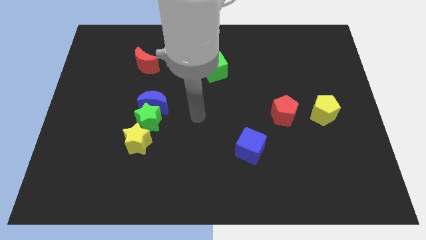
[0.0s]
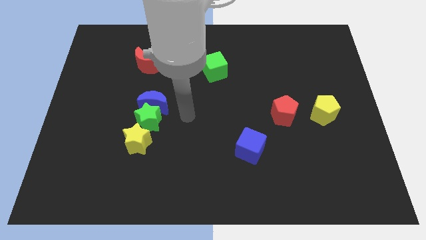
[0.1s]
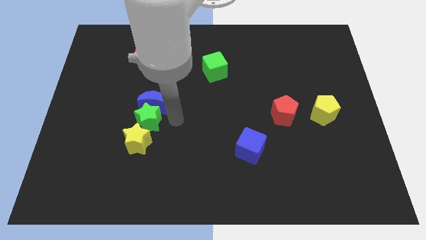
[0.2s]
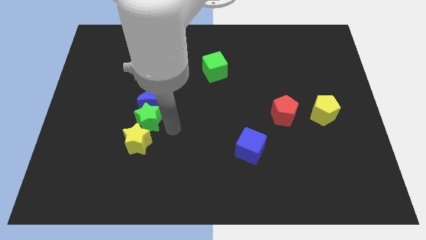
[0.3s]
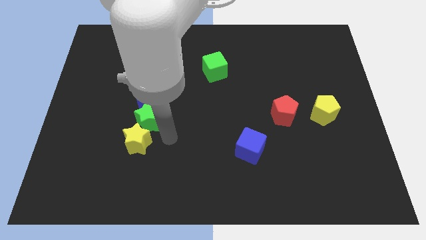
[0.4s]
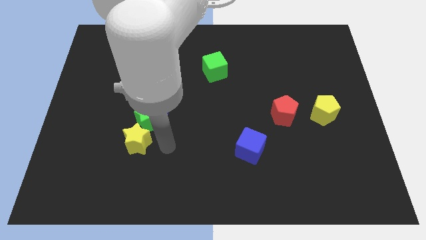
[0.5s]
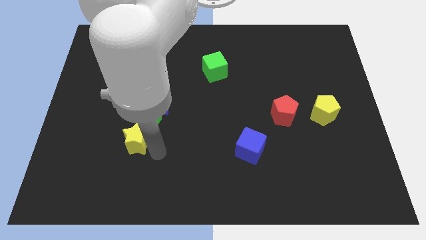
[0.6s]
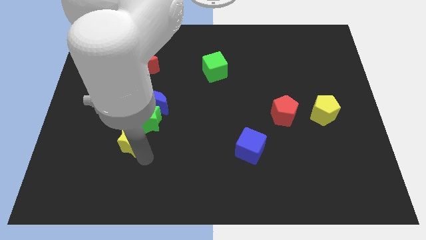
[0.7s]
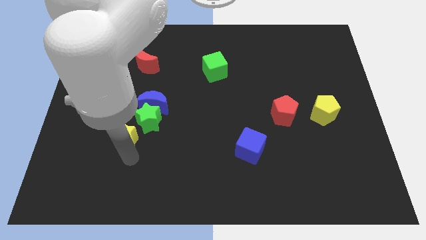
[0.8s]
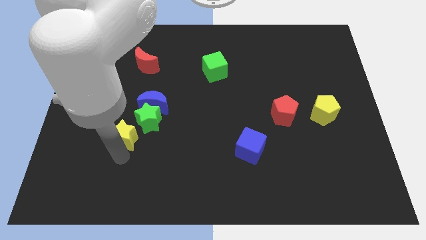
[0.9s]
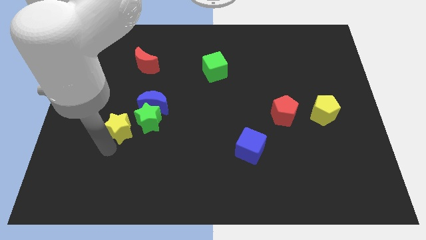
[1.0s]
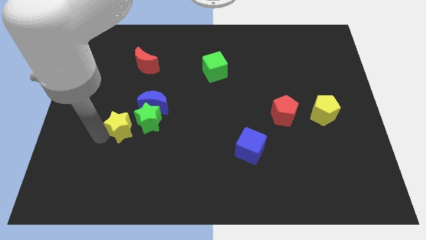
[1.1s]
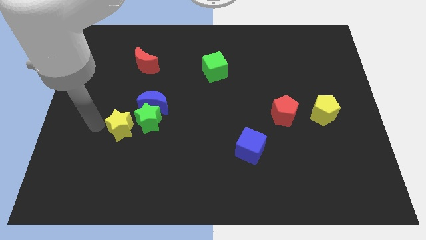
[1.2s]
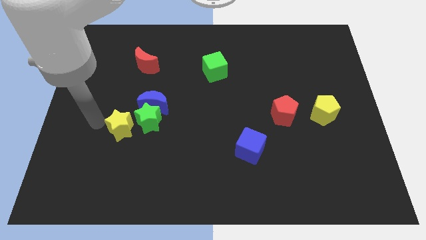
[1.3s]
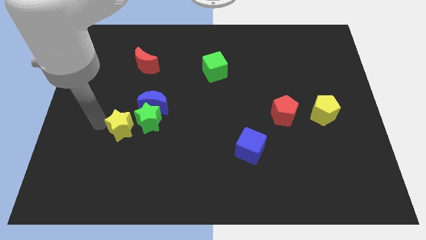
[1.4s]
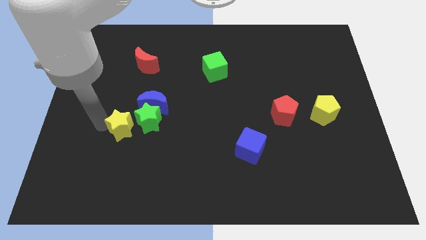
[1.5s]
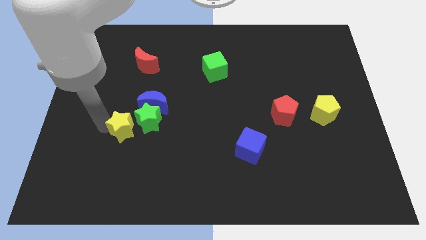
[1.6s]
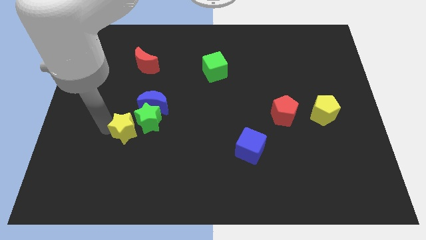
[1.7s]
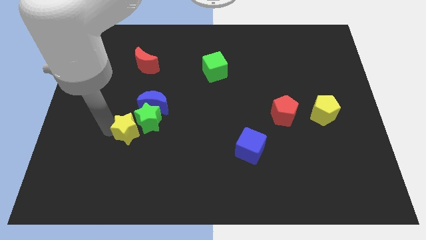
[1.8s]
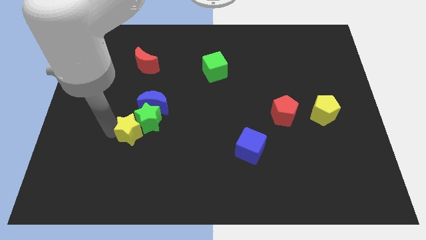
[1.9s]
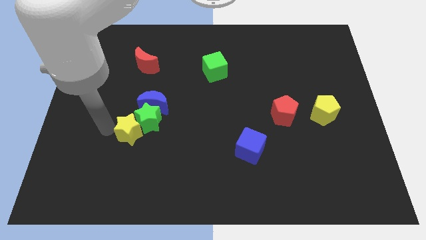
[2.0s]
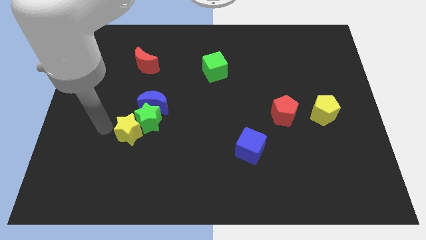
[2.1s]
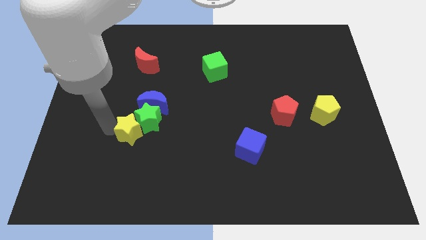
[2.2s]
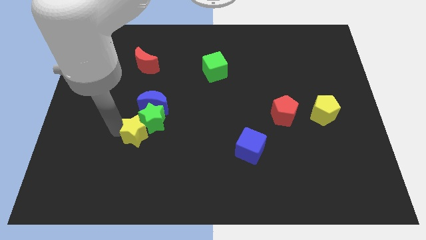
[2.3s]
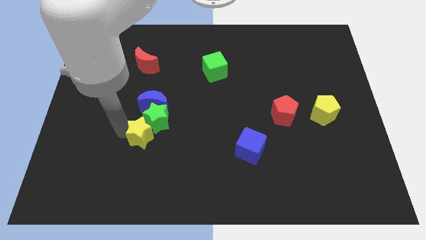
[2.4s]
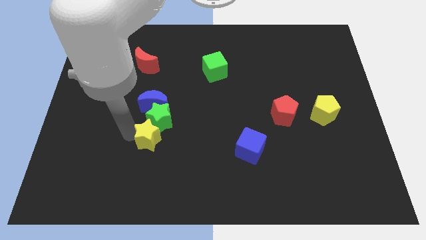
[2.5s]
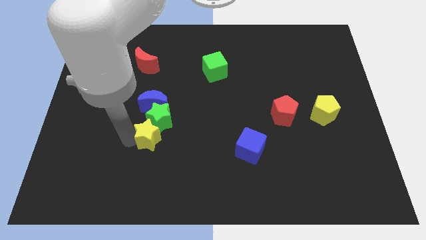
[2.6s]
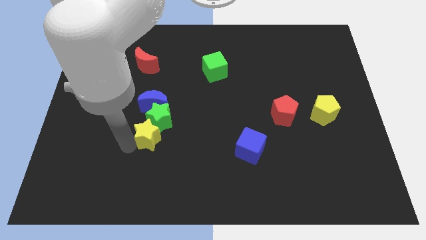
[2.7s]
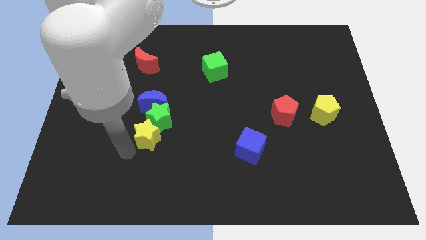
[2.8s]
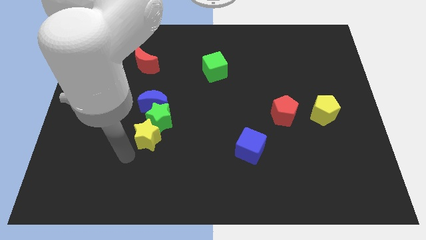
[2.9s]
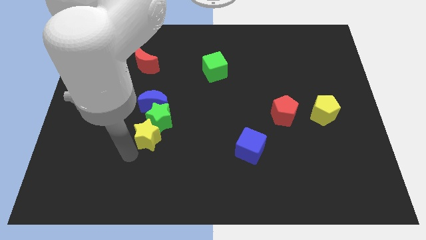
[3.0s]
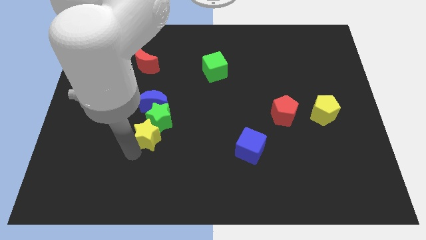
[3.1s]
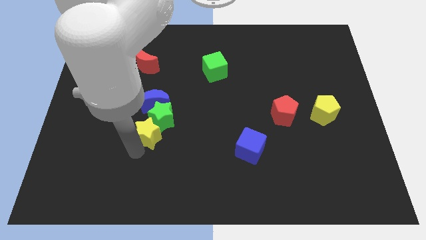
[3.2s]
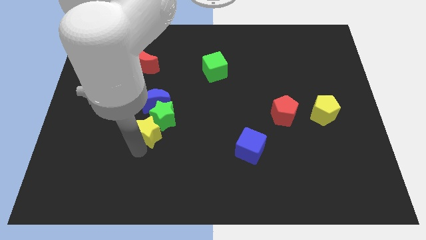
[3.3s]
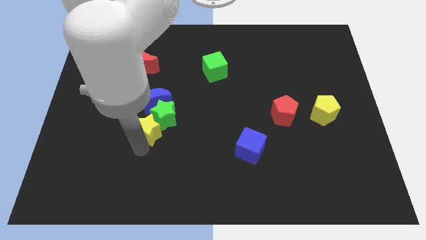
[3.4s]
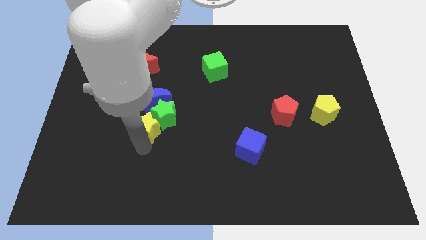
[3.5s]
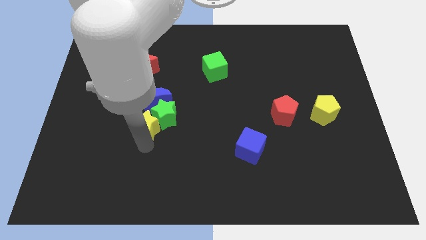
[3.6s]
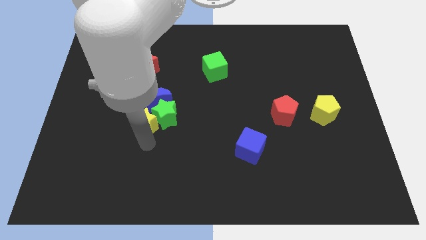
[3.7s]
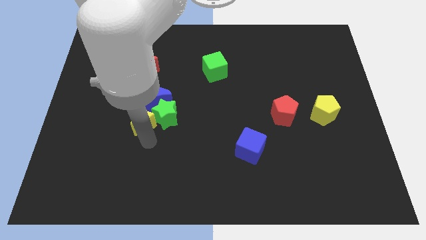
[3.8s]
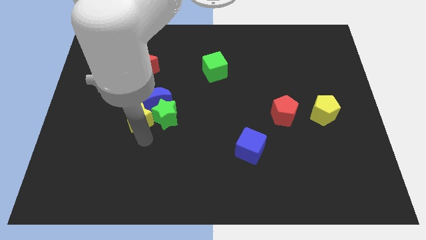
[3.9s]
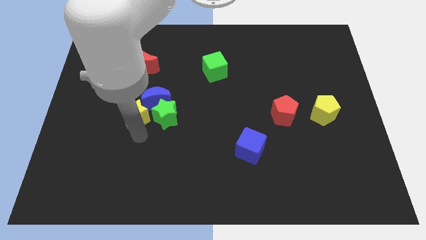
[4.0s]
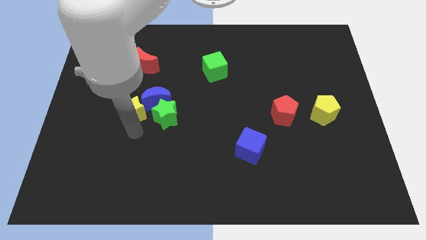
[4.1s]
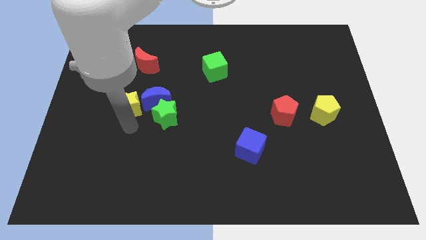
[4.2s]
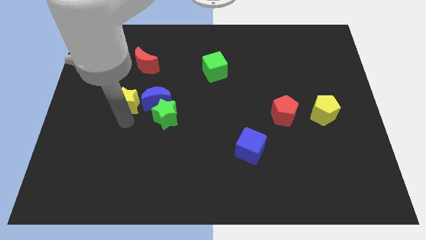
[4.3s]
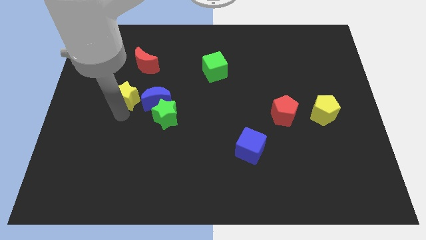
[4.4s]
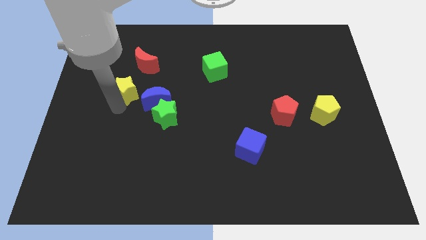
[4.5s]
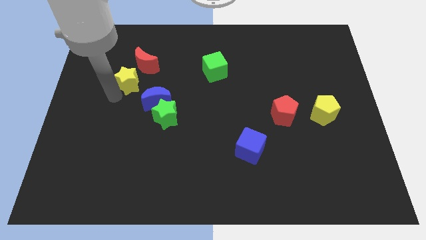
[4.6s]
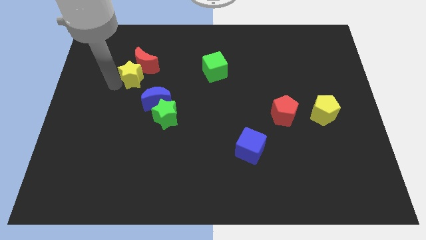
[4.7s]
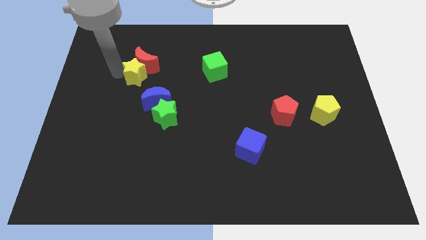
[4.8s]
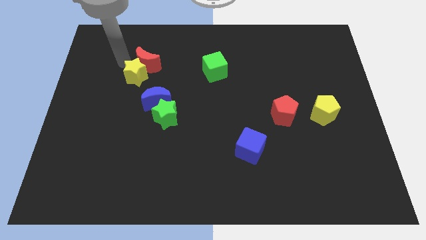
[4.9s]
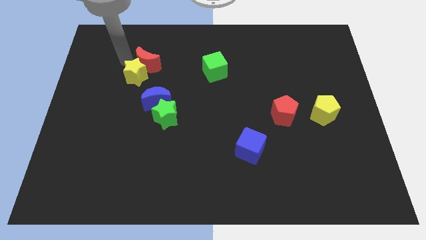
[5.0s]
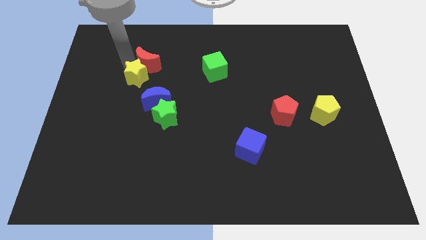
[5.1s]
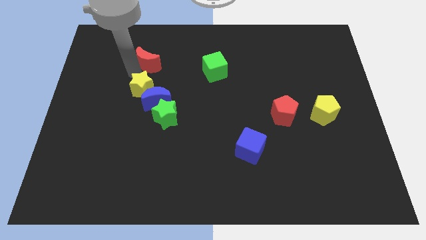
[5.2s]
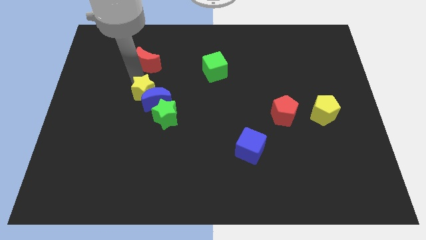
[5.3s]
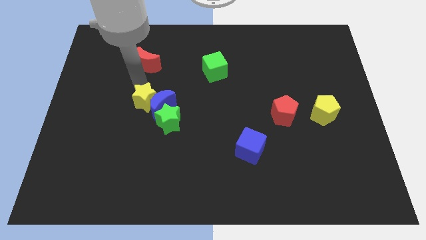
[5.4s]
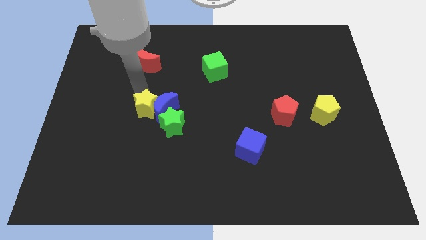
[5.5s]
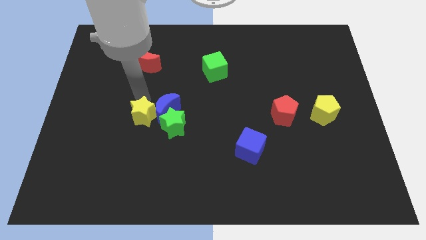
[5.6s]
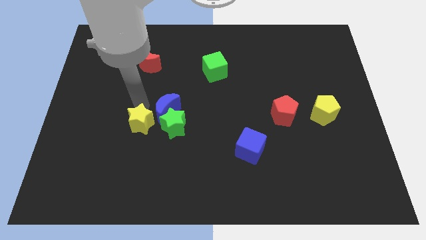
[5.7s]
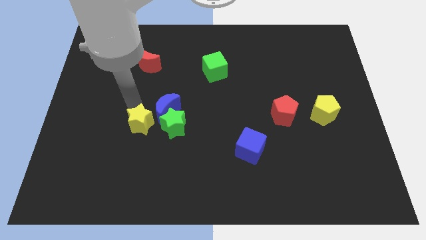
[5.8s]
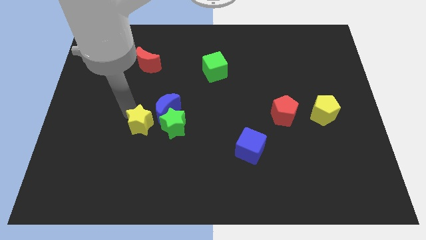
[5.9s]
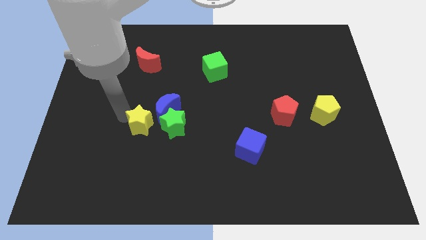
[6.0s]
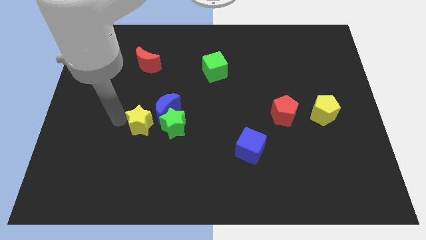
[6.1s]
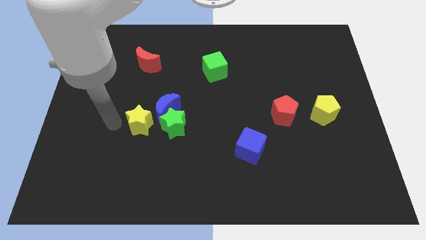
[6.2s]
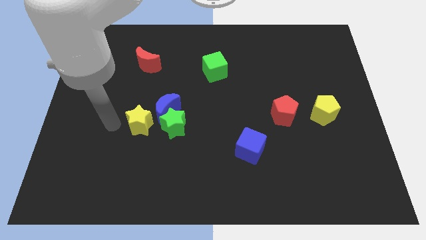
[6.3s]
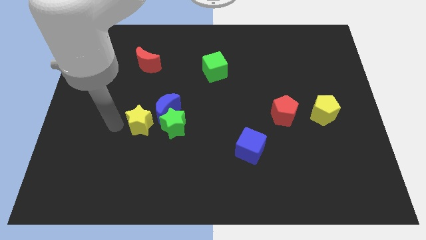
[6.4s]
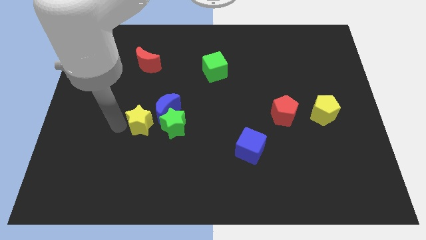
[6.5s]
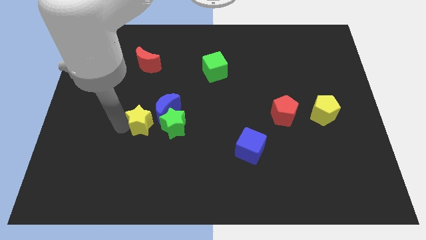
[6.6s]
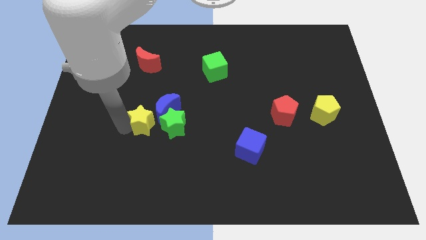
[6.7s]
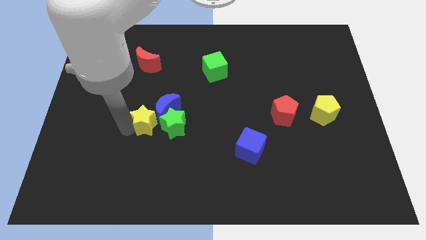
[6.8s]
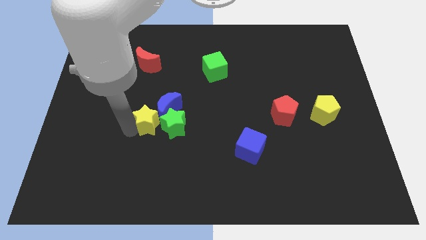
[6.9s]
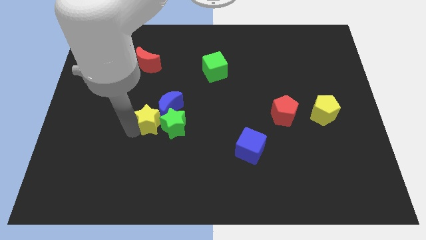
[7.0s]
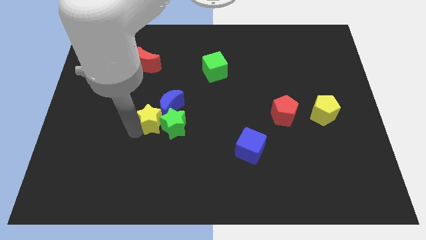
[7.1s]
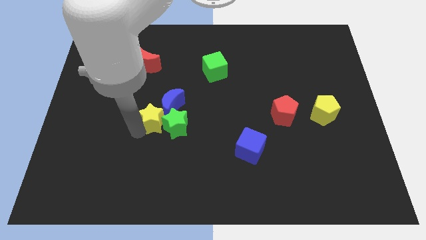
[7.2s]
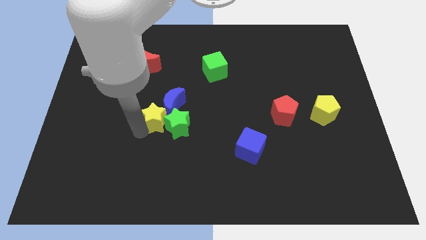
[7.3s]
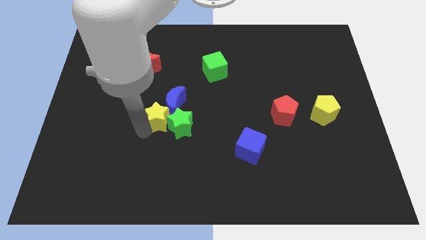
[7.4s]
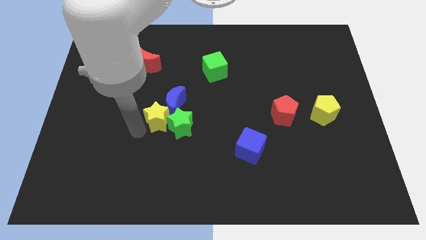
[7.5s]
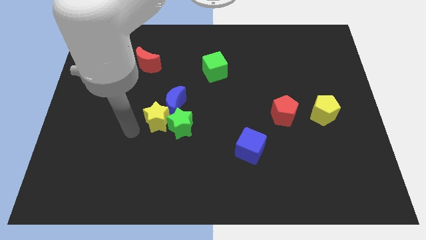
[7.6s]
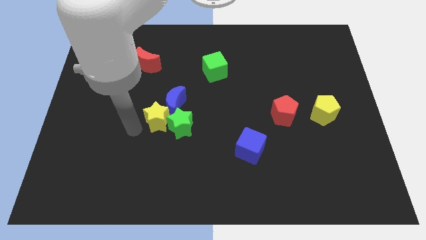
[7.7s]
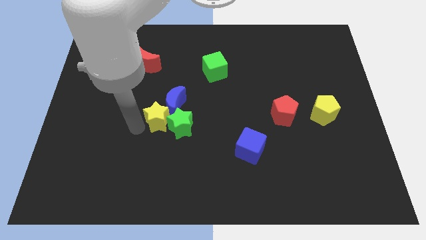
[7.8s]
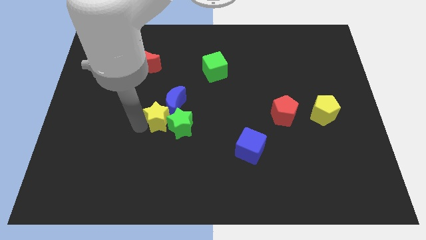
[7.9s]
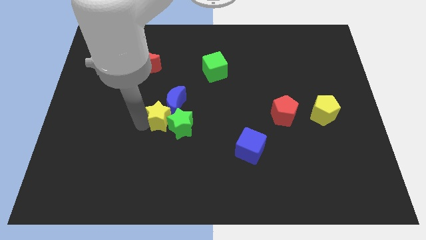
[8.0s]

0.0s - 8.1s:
push the yellow star upwards and to the right a bit
